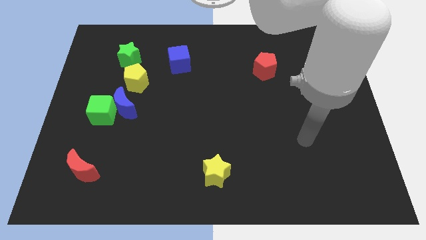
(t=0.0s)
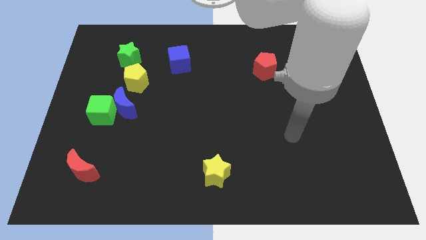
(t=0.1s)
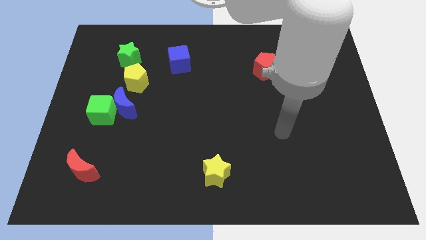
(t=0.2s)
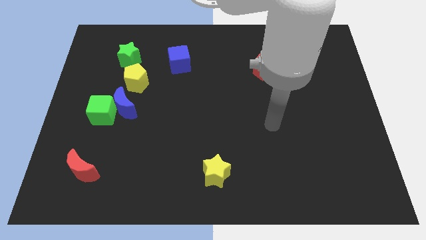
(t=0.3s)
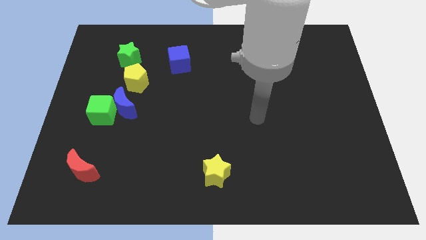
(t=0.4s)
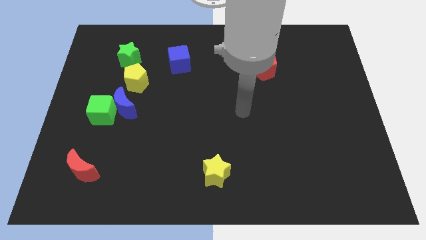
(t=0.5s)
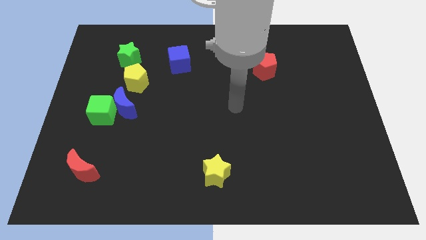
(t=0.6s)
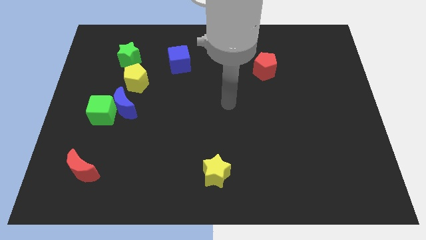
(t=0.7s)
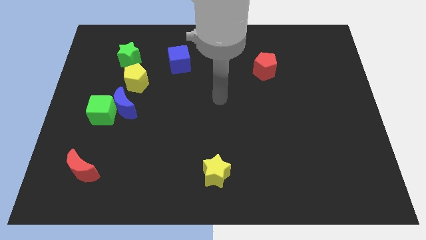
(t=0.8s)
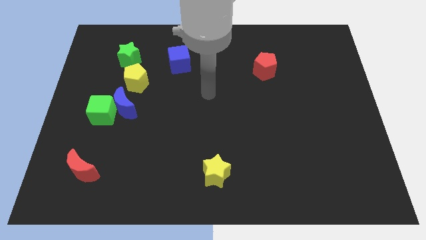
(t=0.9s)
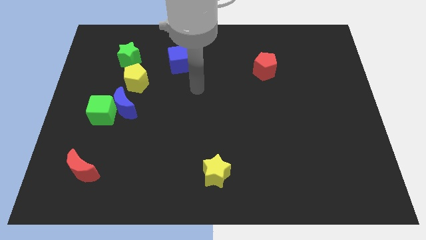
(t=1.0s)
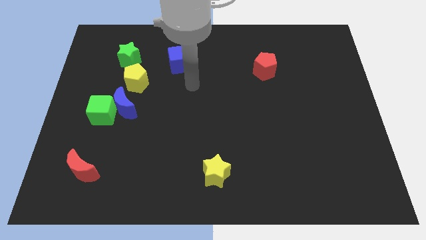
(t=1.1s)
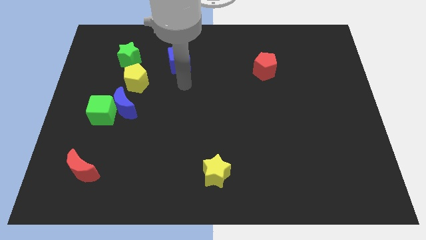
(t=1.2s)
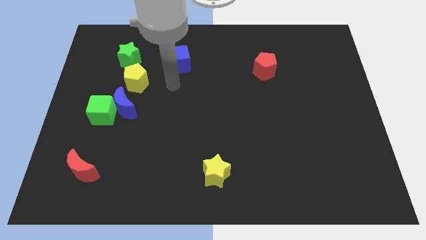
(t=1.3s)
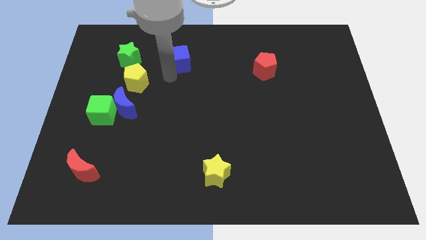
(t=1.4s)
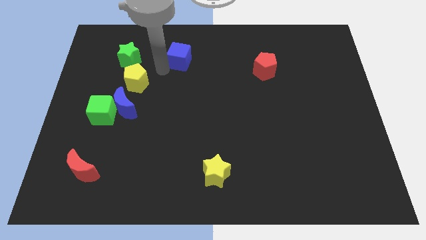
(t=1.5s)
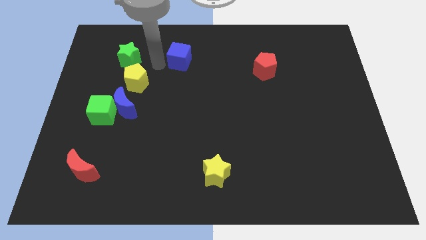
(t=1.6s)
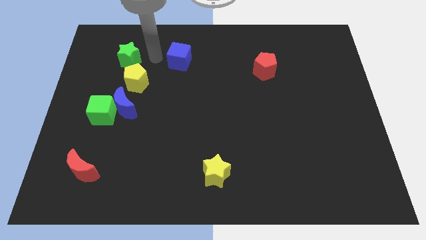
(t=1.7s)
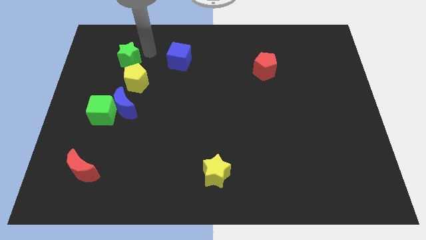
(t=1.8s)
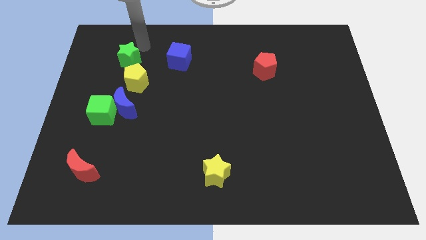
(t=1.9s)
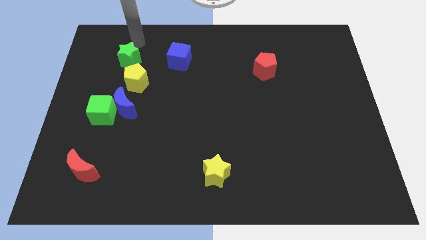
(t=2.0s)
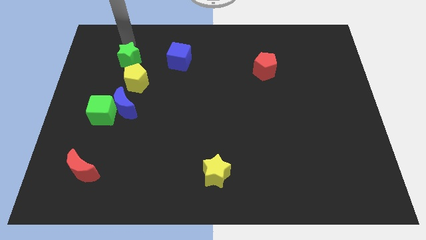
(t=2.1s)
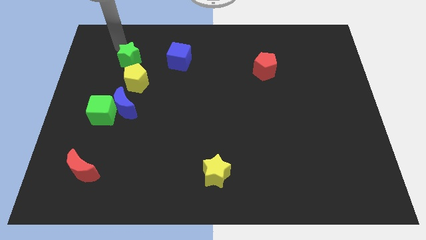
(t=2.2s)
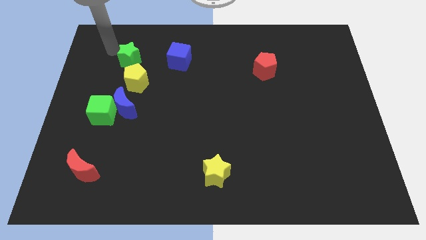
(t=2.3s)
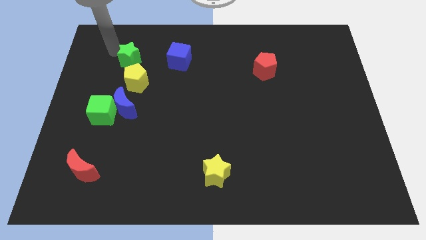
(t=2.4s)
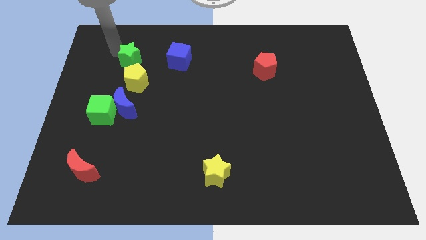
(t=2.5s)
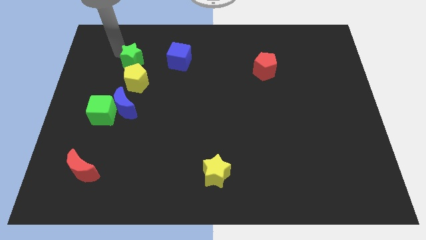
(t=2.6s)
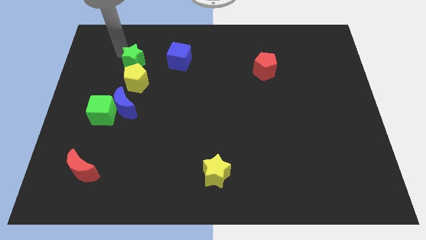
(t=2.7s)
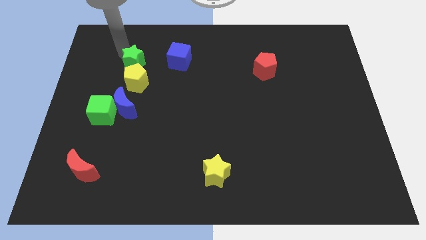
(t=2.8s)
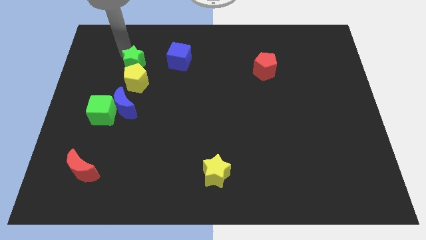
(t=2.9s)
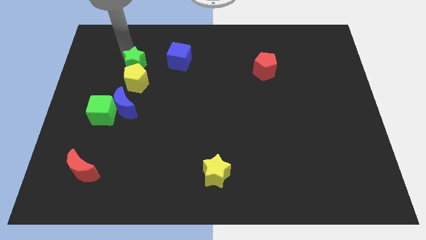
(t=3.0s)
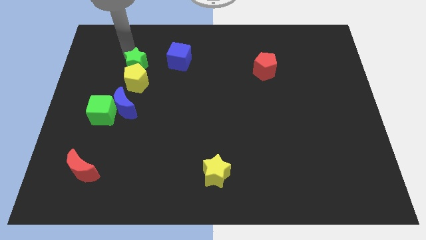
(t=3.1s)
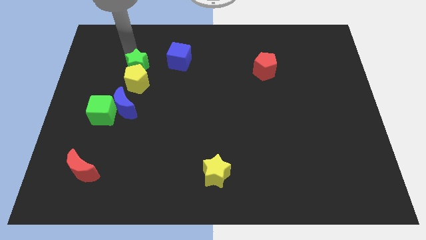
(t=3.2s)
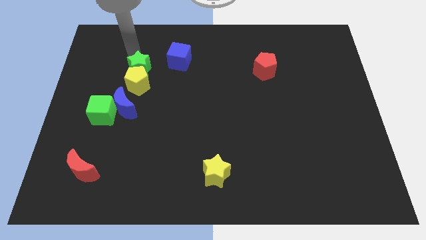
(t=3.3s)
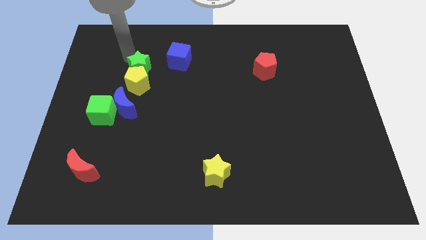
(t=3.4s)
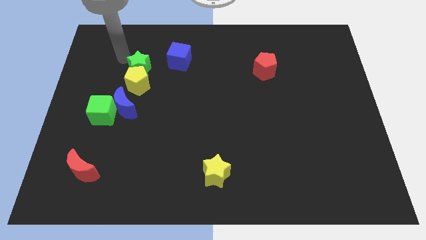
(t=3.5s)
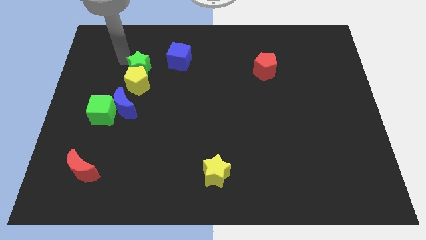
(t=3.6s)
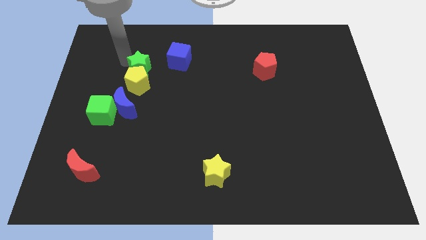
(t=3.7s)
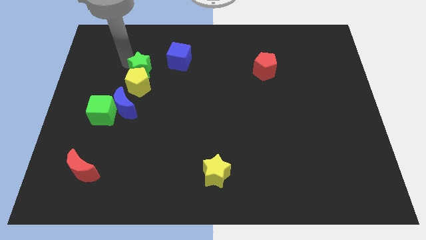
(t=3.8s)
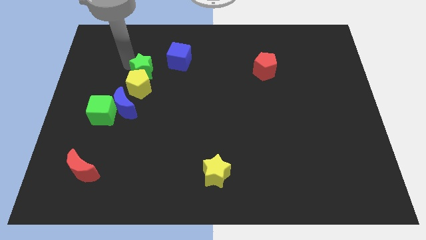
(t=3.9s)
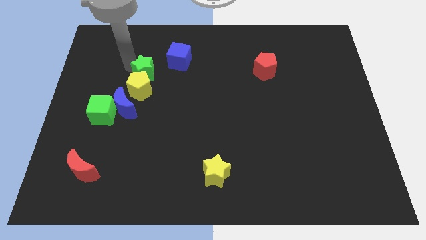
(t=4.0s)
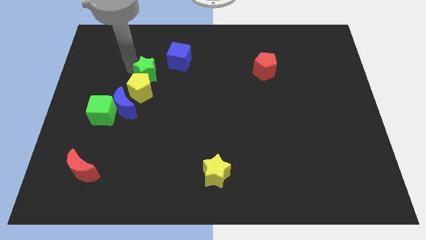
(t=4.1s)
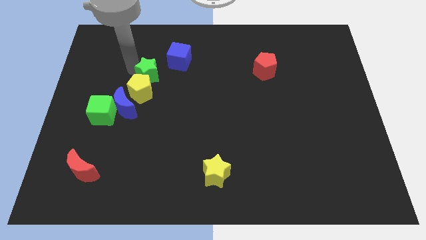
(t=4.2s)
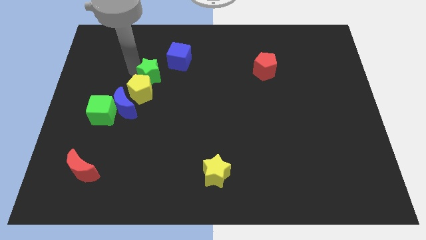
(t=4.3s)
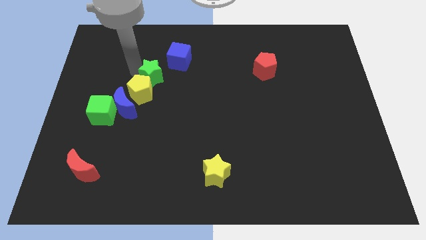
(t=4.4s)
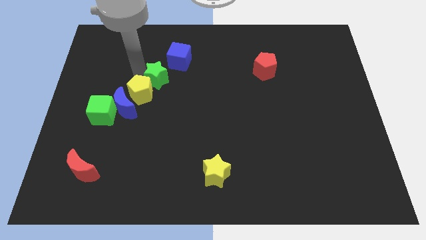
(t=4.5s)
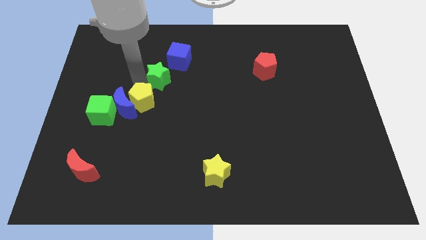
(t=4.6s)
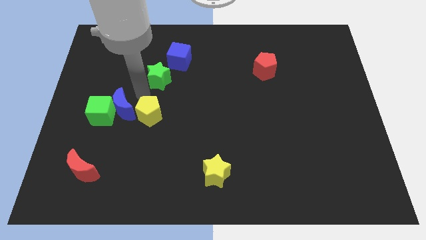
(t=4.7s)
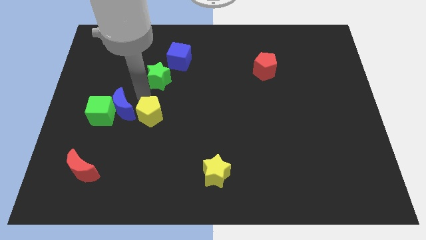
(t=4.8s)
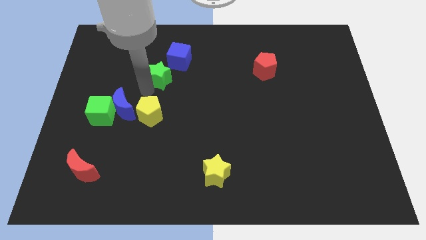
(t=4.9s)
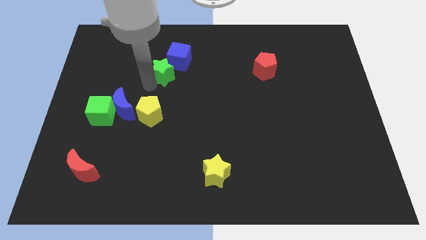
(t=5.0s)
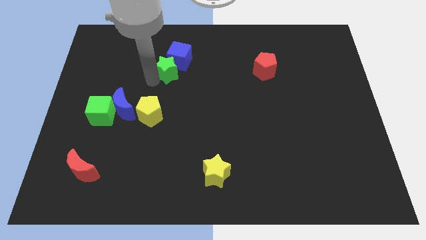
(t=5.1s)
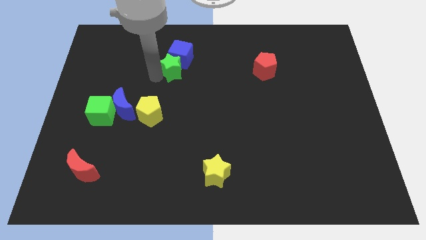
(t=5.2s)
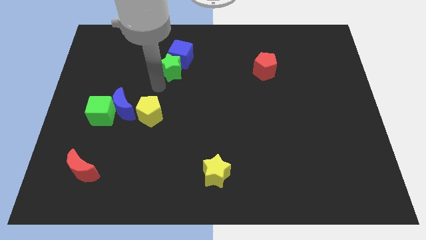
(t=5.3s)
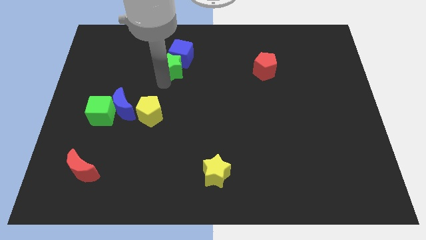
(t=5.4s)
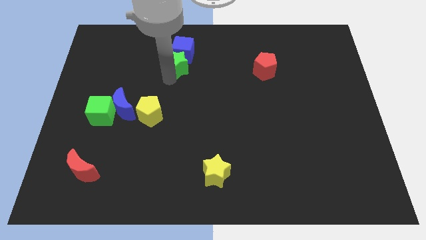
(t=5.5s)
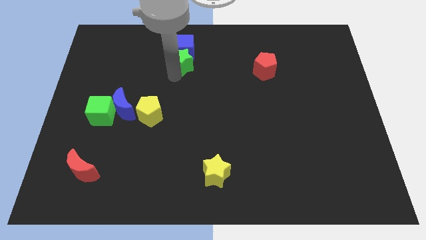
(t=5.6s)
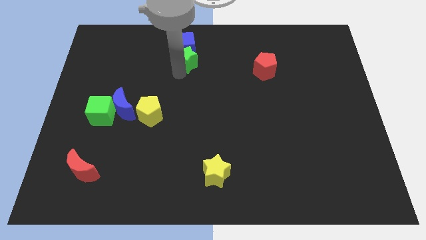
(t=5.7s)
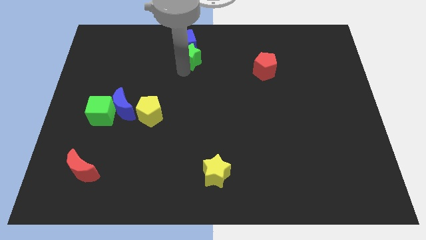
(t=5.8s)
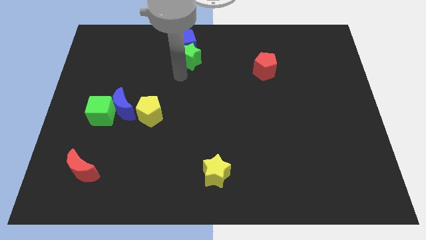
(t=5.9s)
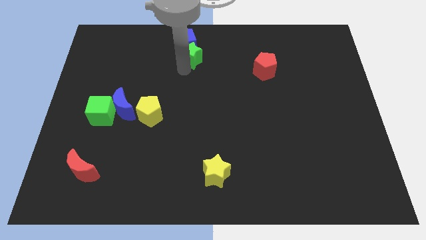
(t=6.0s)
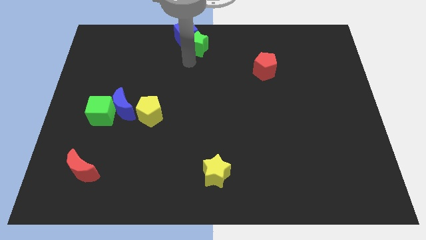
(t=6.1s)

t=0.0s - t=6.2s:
push the green star to the towards your base
